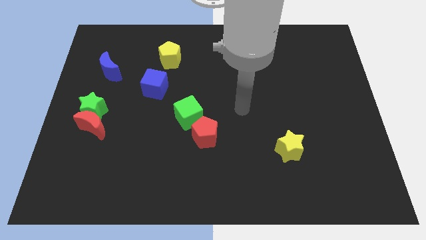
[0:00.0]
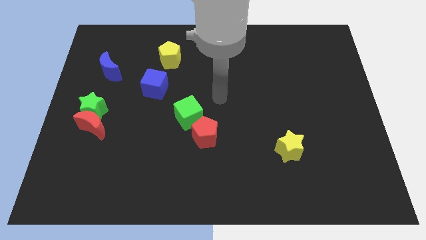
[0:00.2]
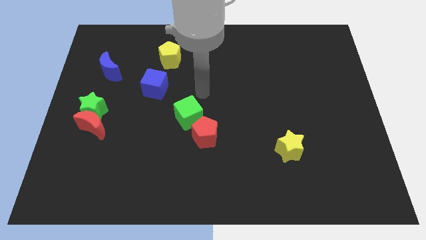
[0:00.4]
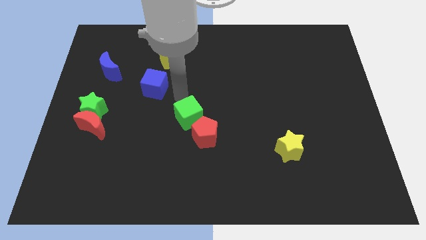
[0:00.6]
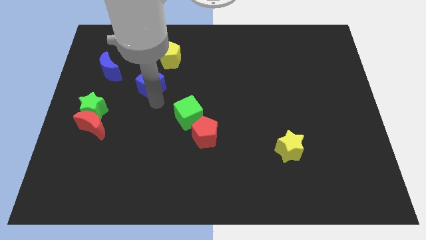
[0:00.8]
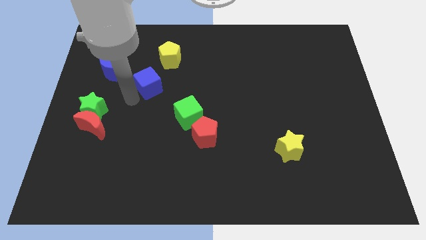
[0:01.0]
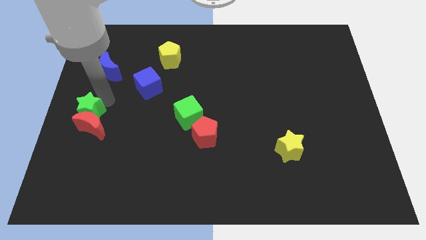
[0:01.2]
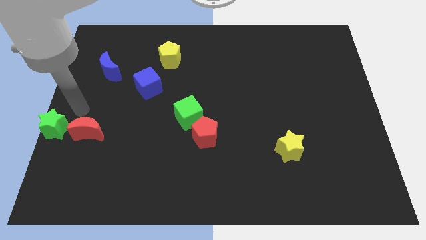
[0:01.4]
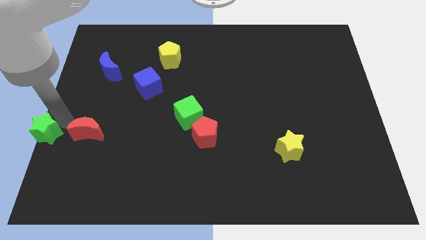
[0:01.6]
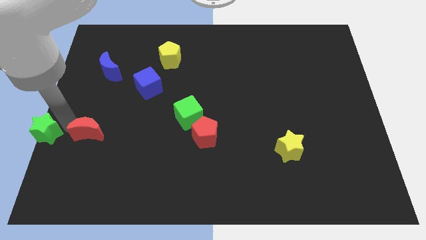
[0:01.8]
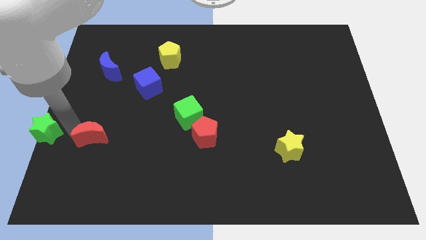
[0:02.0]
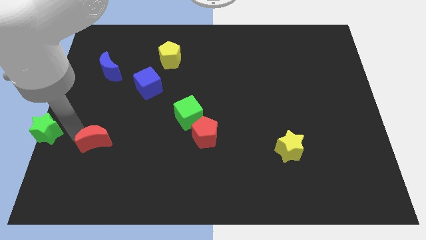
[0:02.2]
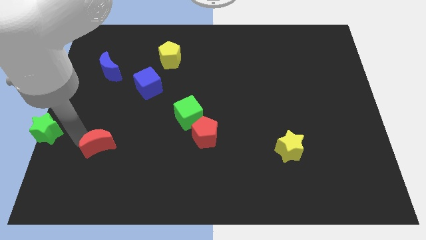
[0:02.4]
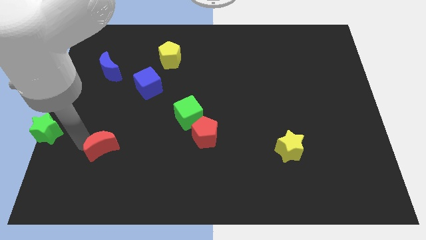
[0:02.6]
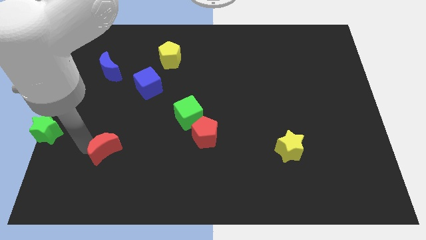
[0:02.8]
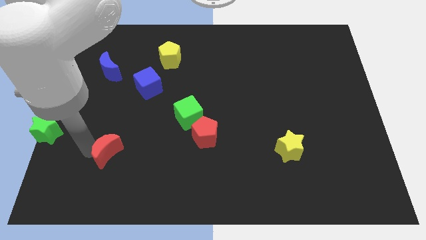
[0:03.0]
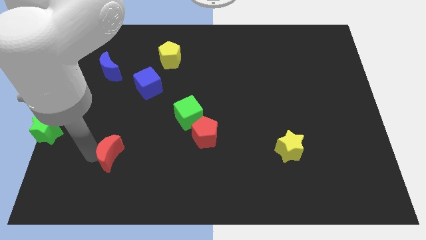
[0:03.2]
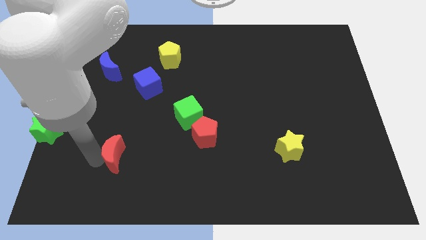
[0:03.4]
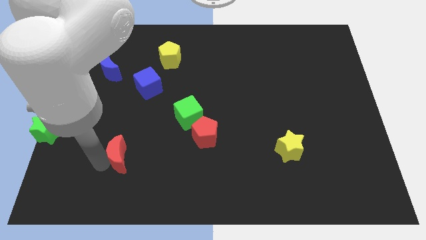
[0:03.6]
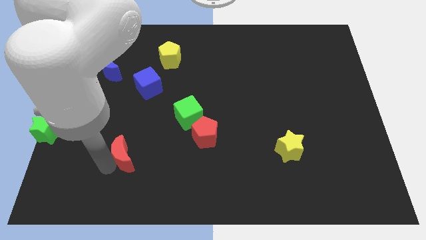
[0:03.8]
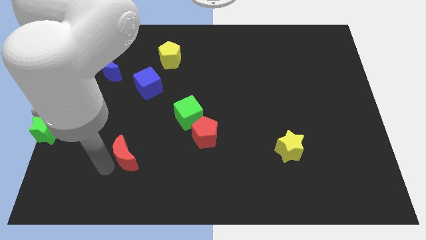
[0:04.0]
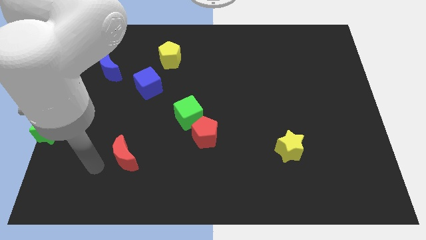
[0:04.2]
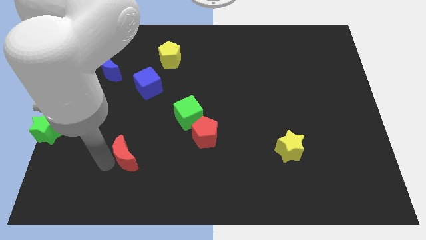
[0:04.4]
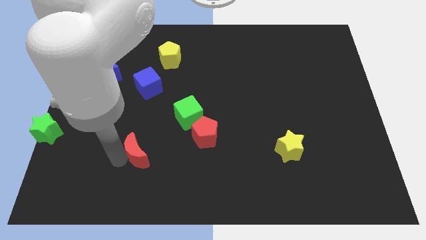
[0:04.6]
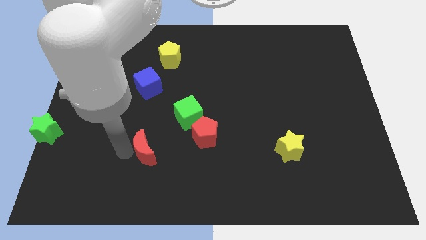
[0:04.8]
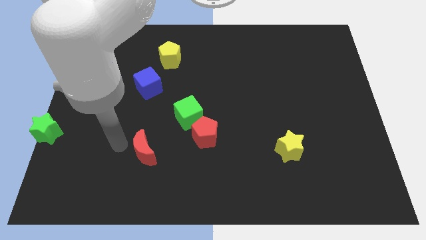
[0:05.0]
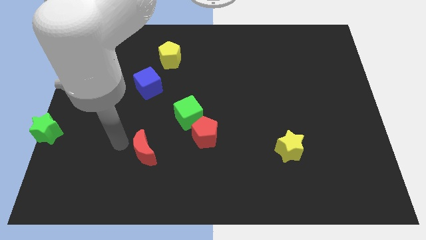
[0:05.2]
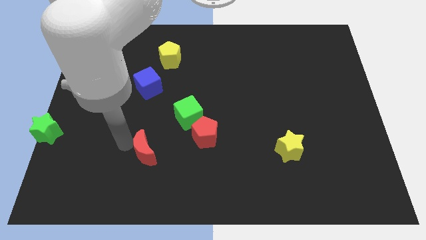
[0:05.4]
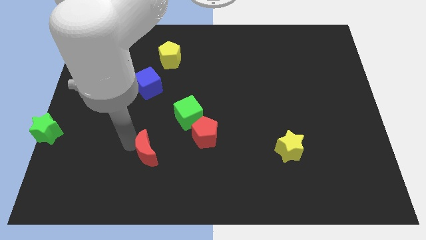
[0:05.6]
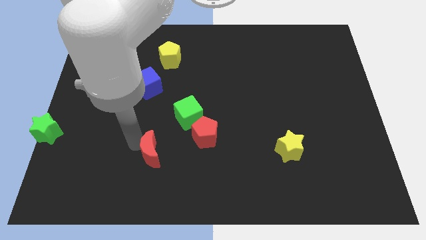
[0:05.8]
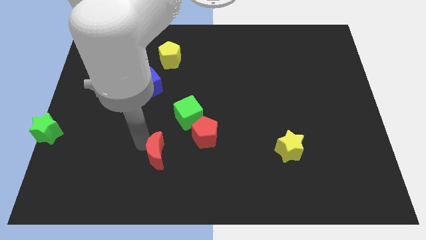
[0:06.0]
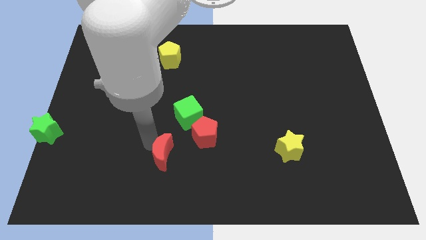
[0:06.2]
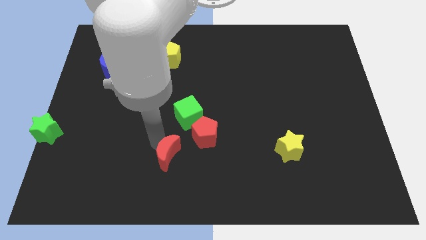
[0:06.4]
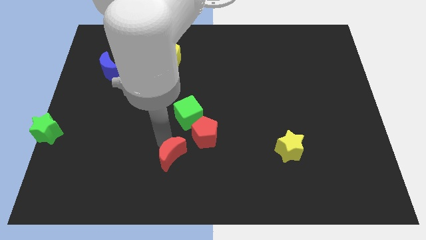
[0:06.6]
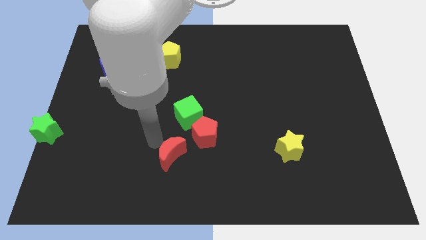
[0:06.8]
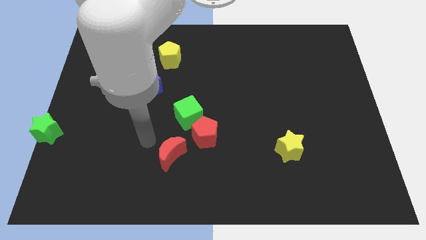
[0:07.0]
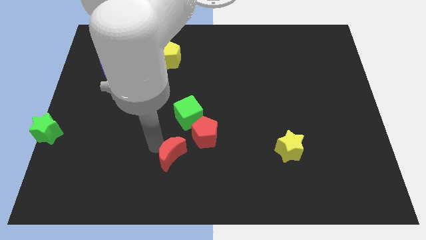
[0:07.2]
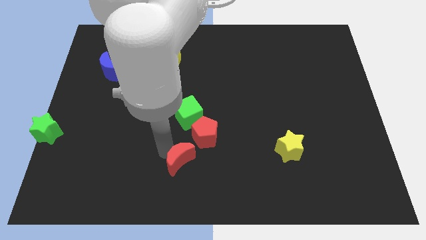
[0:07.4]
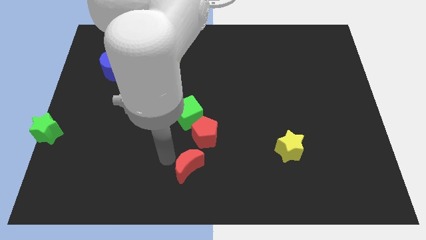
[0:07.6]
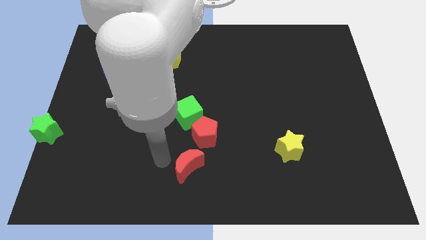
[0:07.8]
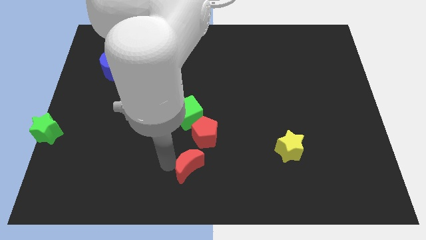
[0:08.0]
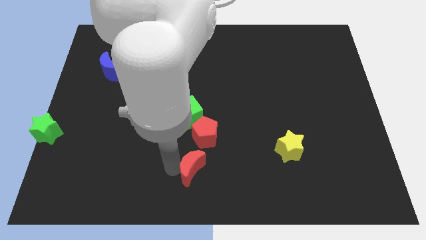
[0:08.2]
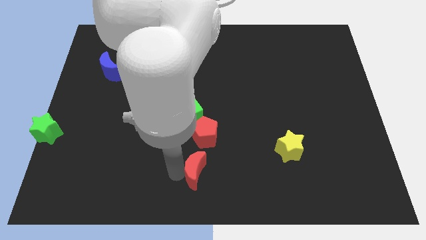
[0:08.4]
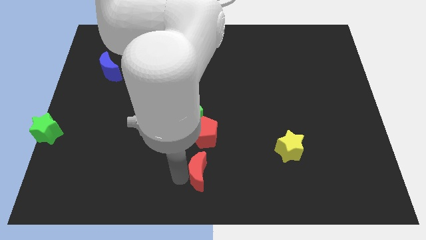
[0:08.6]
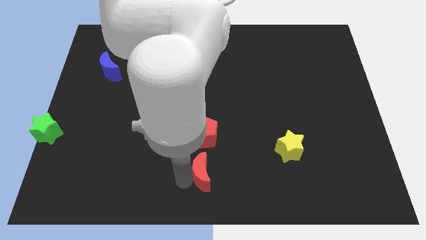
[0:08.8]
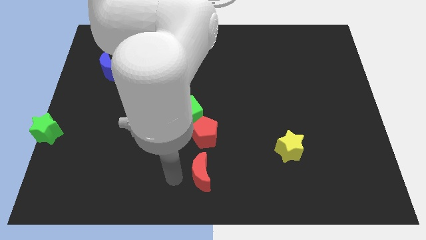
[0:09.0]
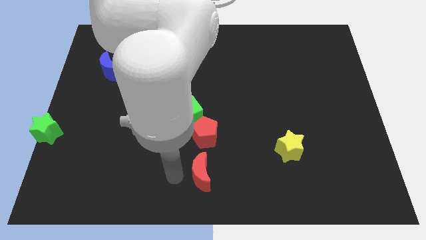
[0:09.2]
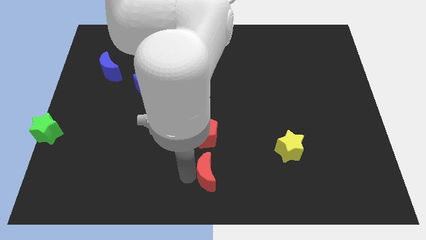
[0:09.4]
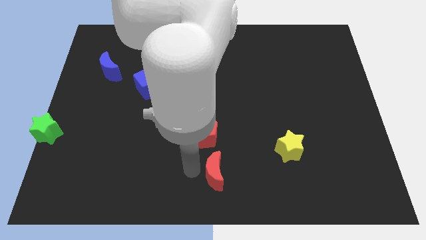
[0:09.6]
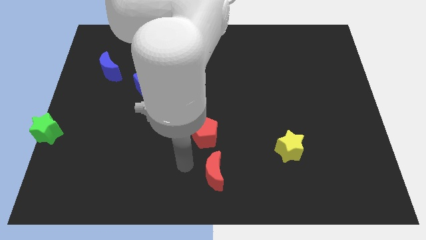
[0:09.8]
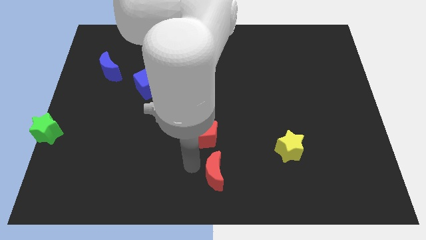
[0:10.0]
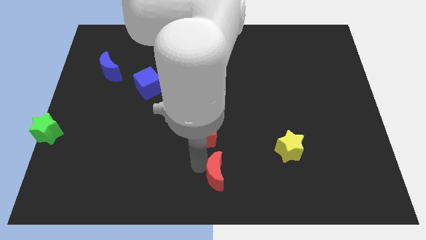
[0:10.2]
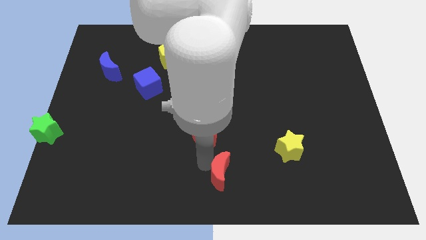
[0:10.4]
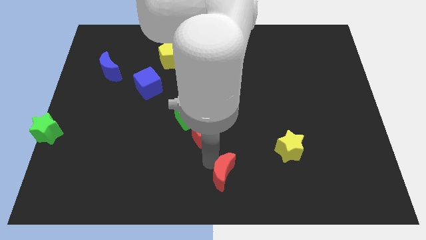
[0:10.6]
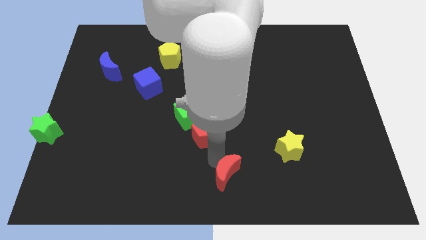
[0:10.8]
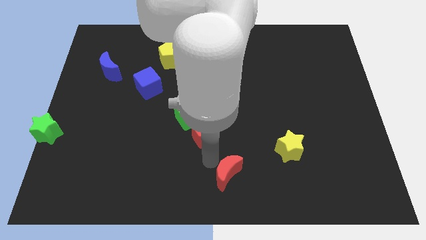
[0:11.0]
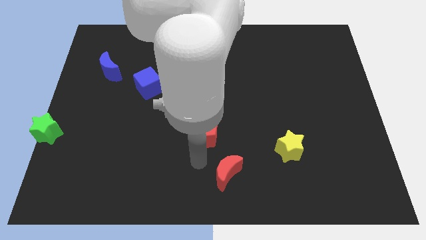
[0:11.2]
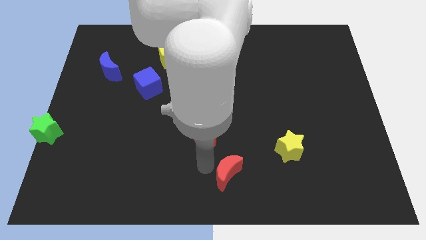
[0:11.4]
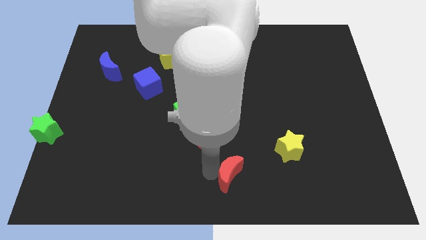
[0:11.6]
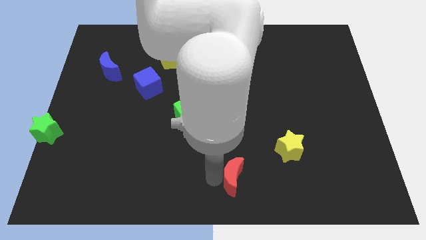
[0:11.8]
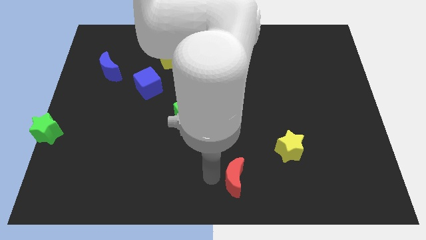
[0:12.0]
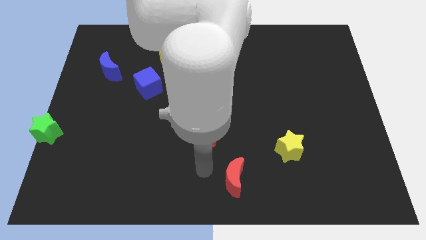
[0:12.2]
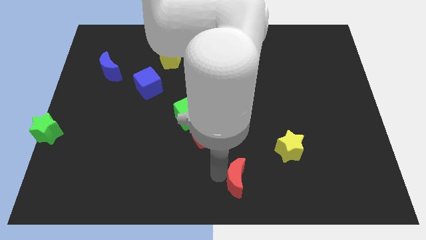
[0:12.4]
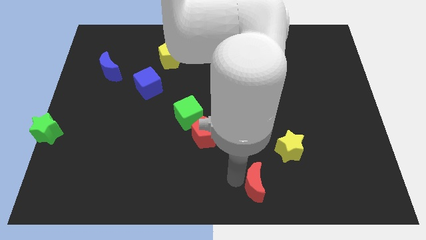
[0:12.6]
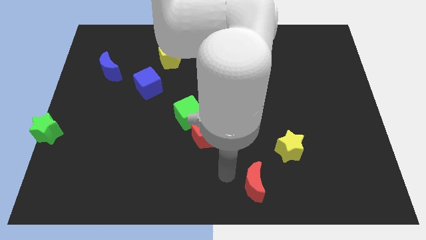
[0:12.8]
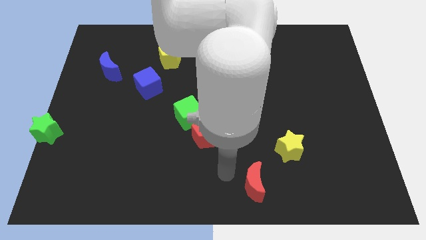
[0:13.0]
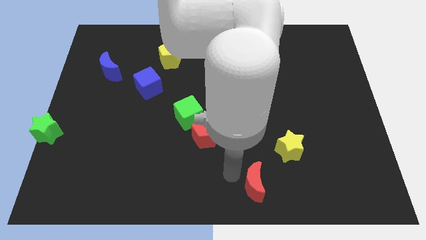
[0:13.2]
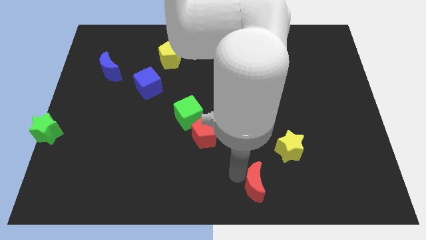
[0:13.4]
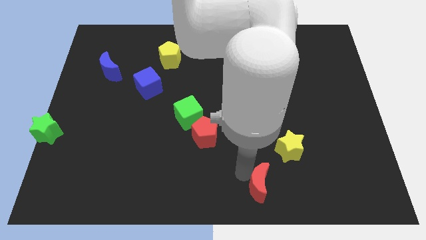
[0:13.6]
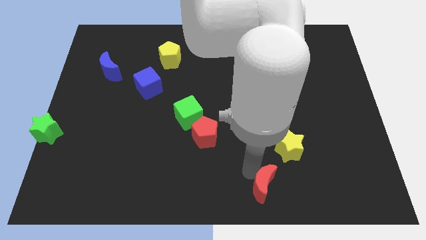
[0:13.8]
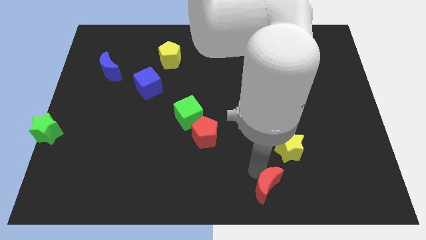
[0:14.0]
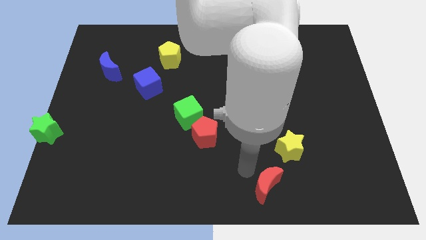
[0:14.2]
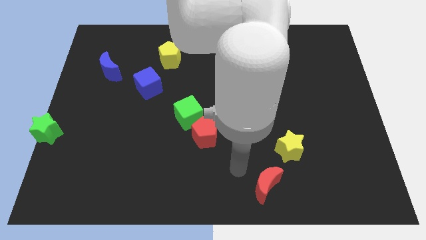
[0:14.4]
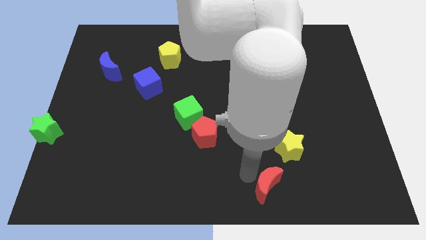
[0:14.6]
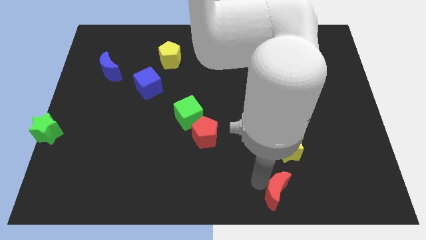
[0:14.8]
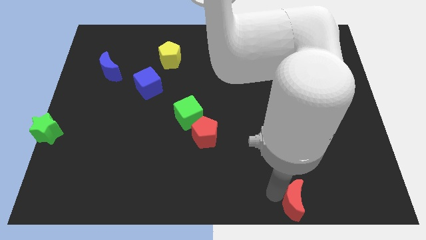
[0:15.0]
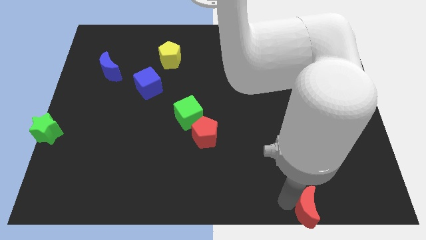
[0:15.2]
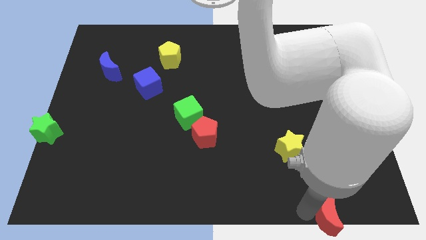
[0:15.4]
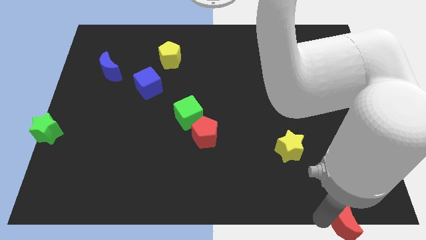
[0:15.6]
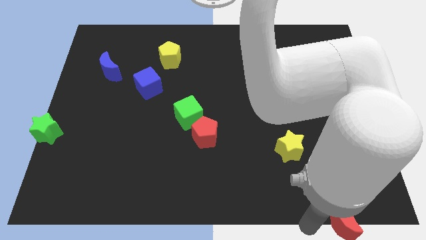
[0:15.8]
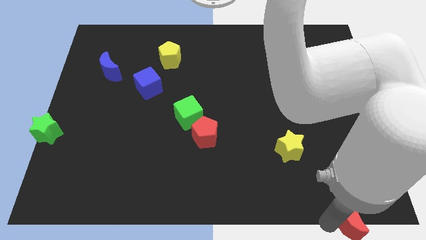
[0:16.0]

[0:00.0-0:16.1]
move the red moon to the bottom right corner
